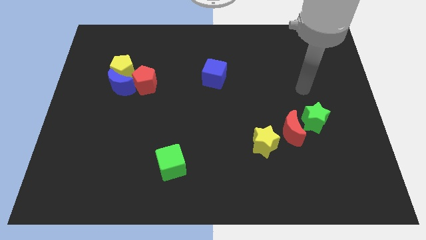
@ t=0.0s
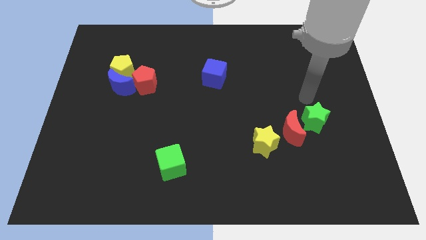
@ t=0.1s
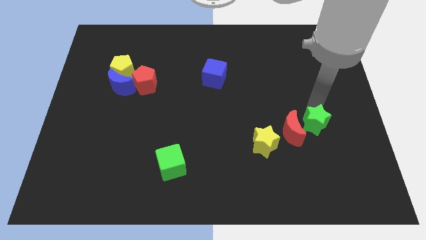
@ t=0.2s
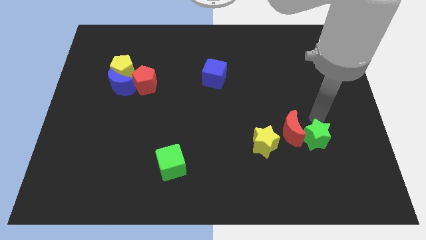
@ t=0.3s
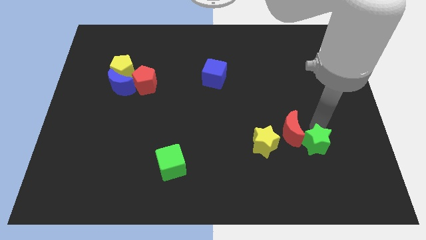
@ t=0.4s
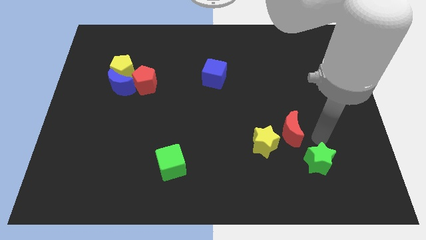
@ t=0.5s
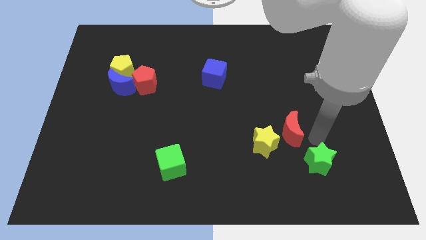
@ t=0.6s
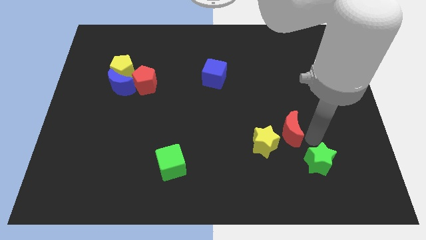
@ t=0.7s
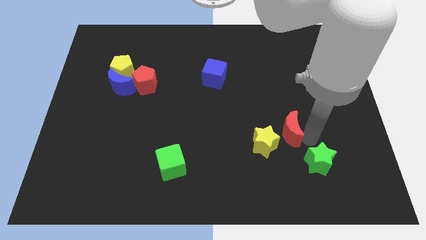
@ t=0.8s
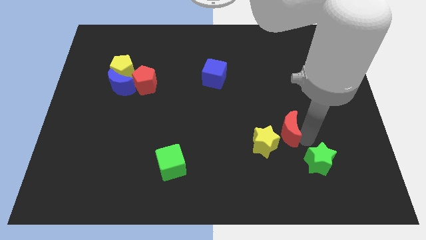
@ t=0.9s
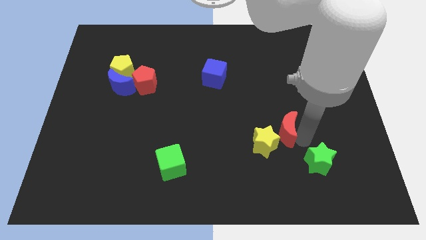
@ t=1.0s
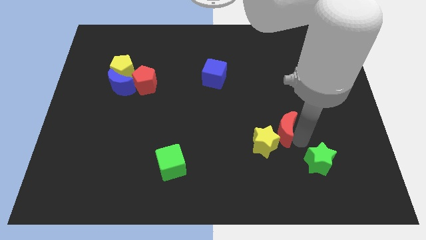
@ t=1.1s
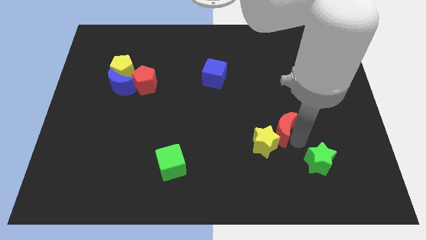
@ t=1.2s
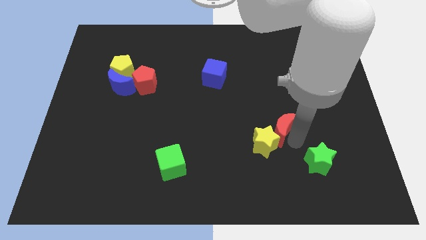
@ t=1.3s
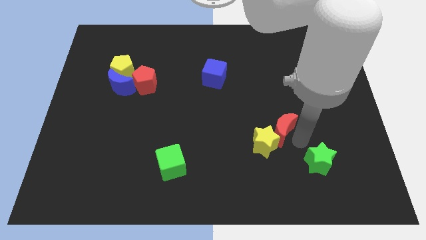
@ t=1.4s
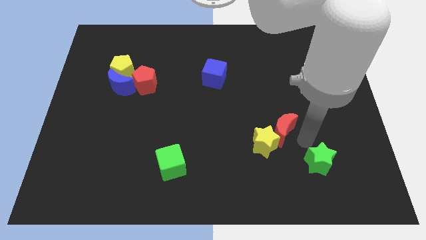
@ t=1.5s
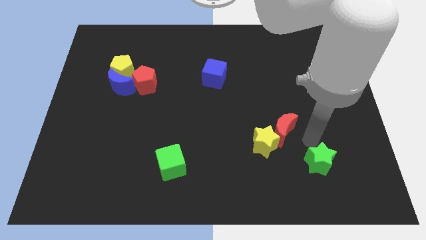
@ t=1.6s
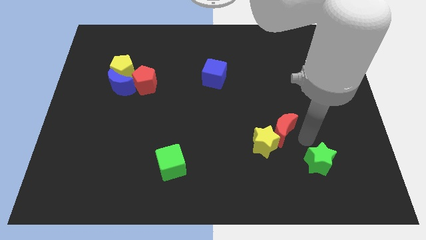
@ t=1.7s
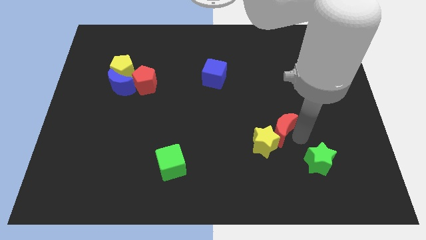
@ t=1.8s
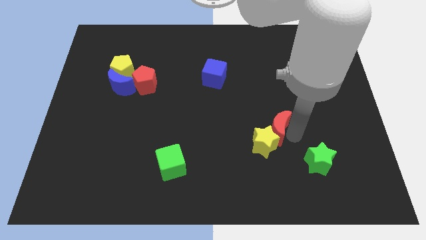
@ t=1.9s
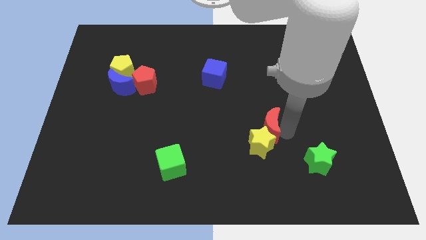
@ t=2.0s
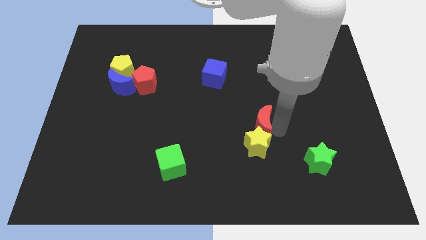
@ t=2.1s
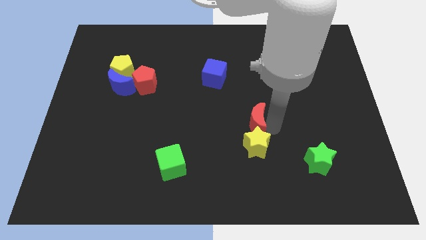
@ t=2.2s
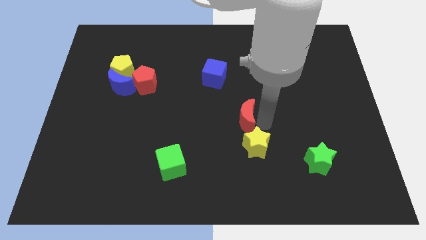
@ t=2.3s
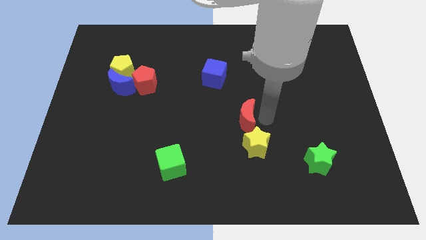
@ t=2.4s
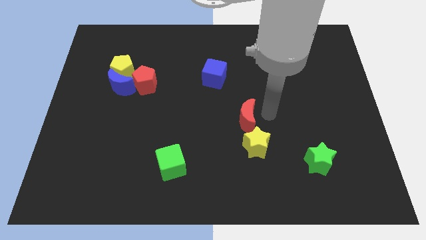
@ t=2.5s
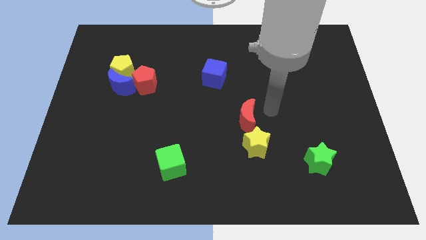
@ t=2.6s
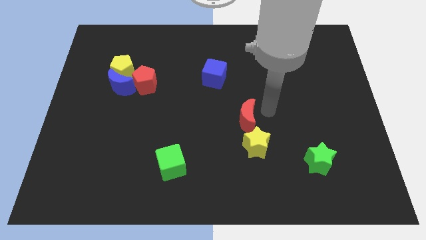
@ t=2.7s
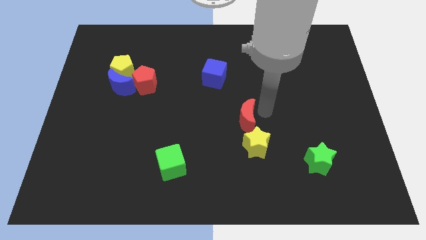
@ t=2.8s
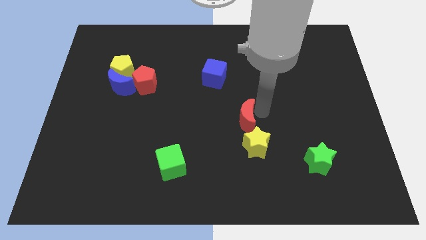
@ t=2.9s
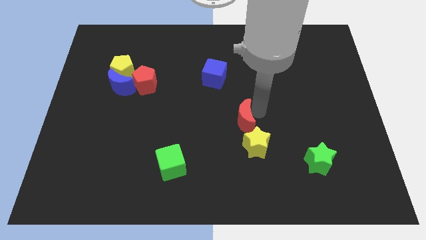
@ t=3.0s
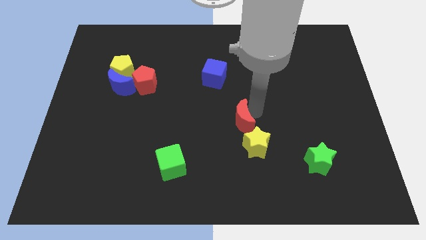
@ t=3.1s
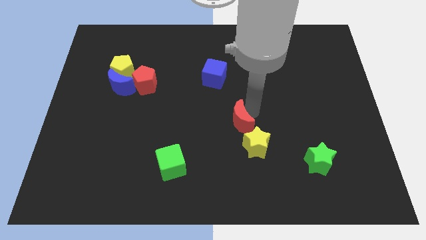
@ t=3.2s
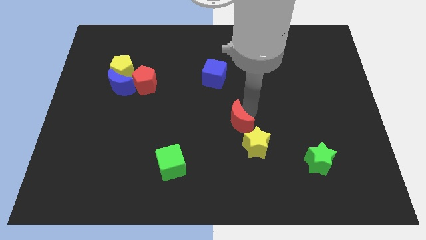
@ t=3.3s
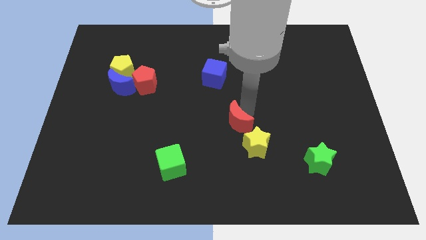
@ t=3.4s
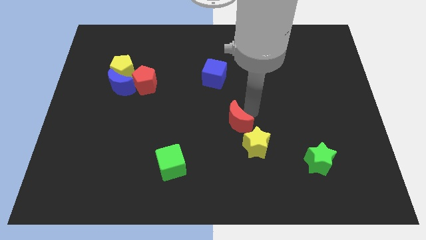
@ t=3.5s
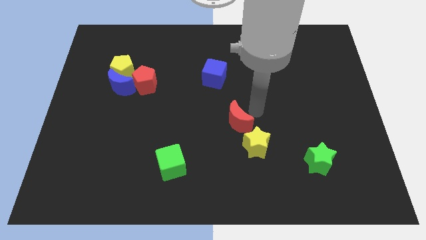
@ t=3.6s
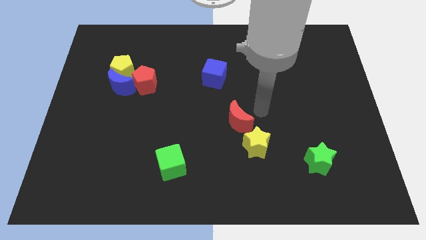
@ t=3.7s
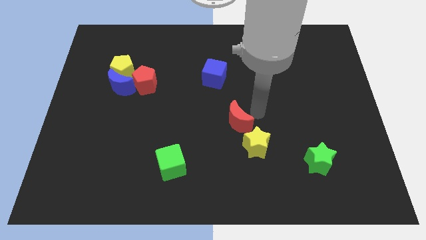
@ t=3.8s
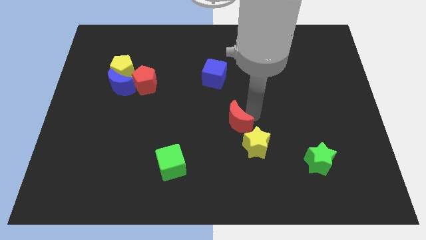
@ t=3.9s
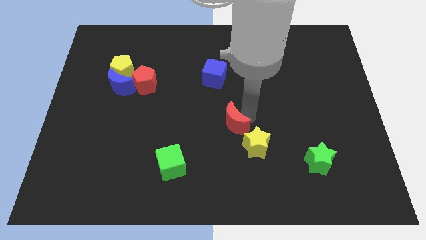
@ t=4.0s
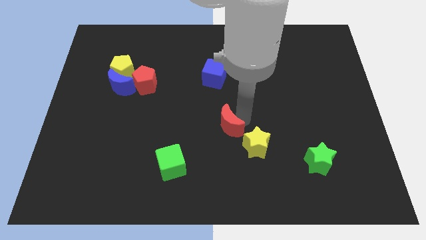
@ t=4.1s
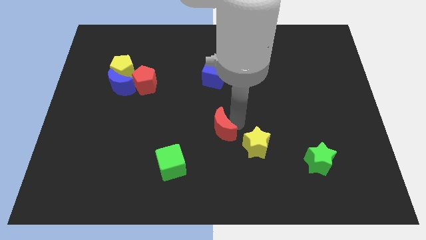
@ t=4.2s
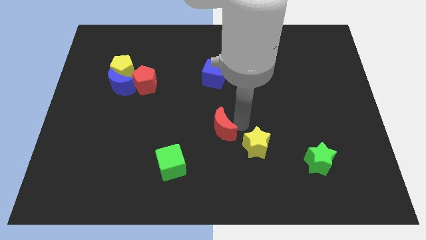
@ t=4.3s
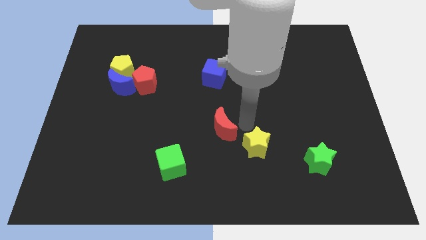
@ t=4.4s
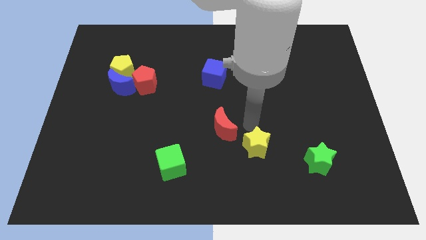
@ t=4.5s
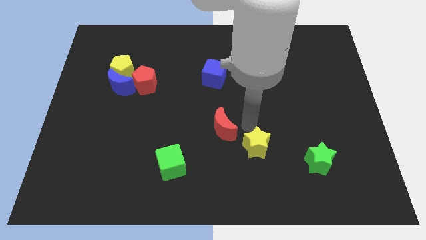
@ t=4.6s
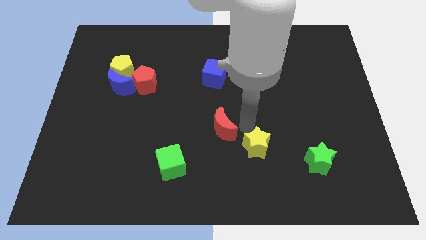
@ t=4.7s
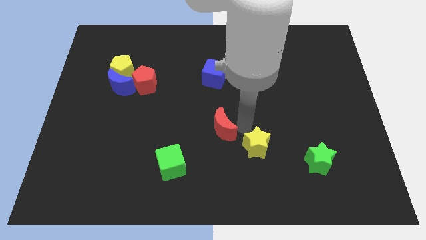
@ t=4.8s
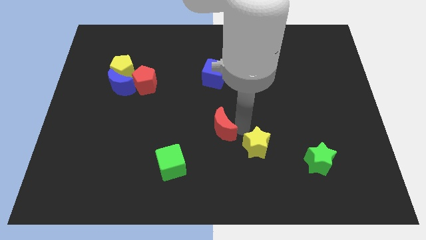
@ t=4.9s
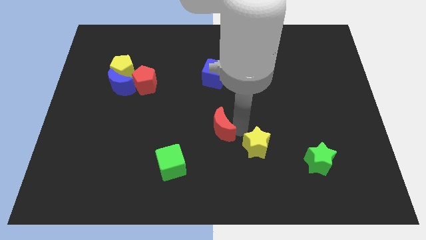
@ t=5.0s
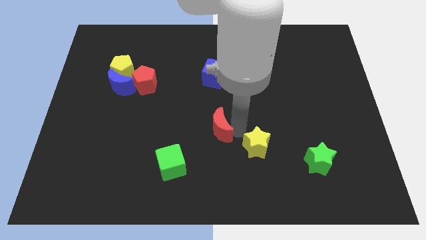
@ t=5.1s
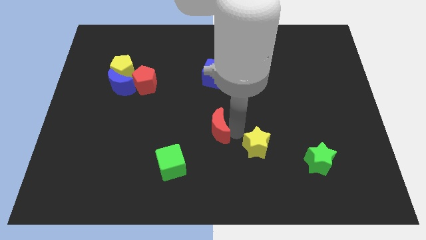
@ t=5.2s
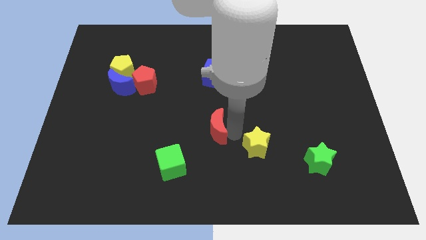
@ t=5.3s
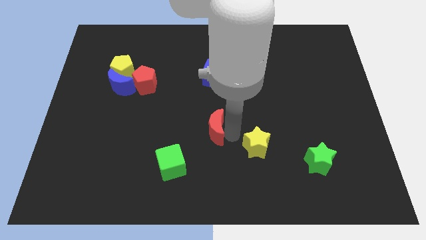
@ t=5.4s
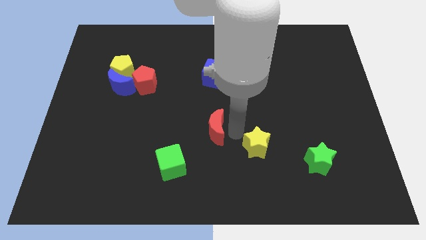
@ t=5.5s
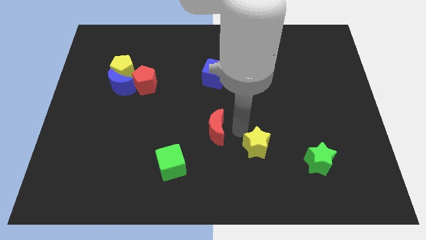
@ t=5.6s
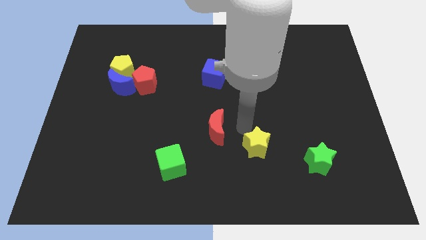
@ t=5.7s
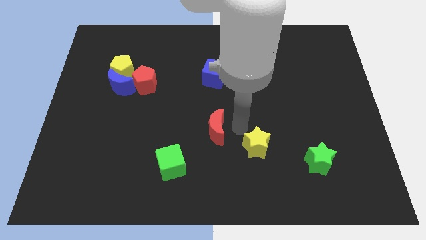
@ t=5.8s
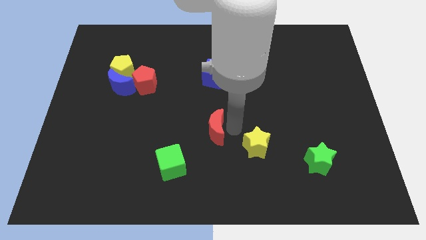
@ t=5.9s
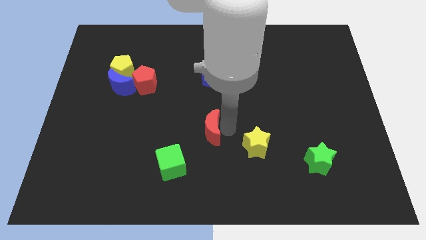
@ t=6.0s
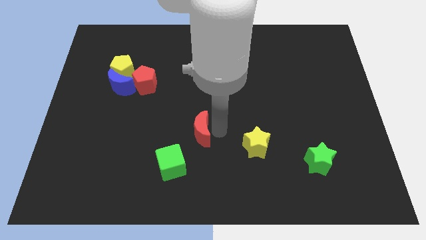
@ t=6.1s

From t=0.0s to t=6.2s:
move the red moon to the left

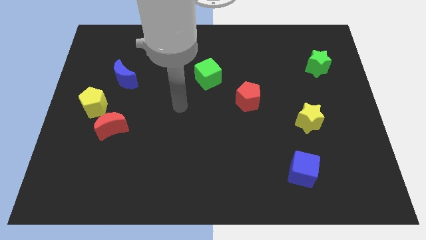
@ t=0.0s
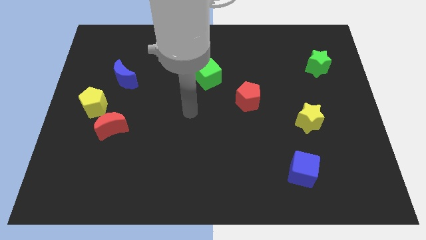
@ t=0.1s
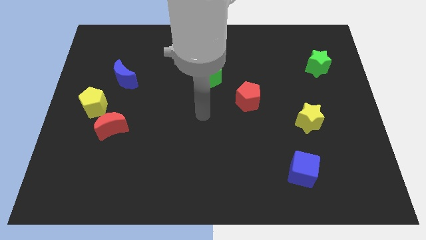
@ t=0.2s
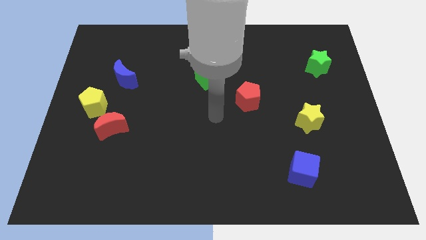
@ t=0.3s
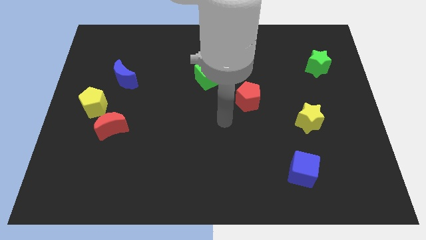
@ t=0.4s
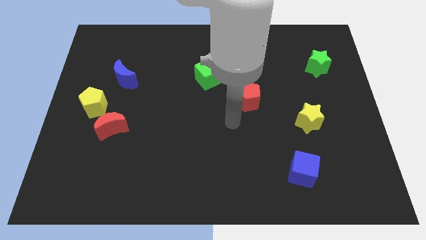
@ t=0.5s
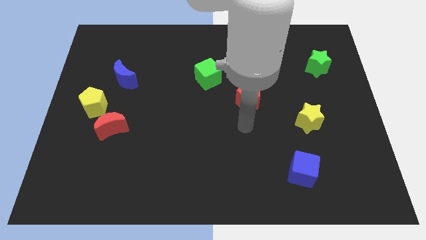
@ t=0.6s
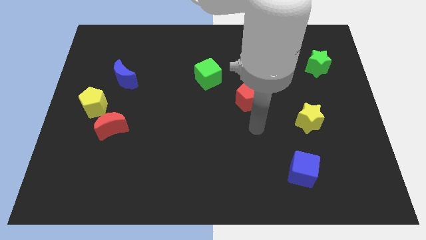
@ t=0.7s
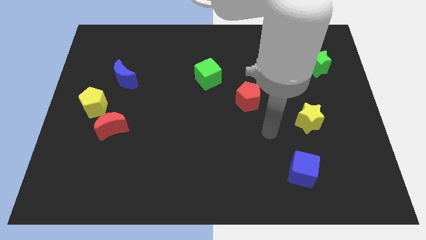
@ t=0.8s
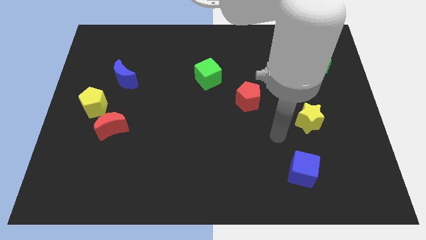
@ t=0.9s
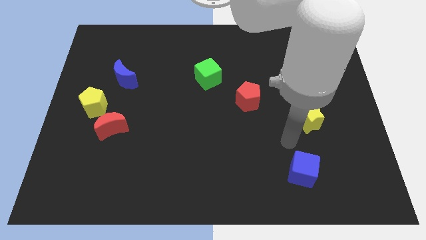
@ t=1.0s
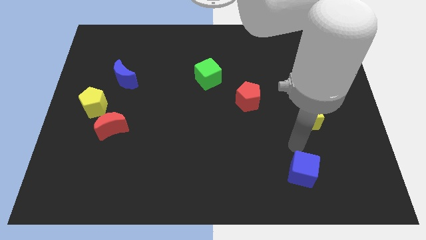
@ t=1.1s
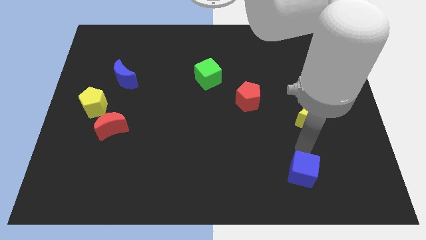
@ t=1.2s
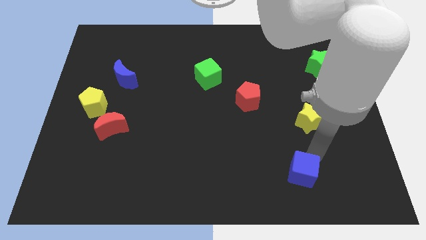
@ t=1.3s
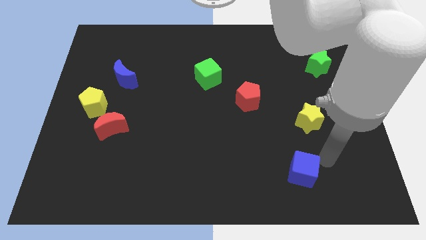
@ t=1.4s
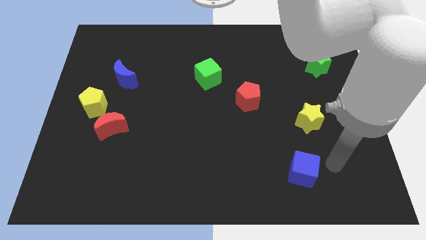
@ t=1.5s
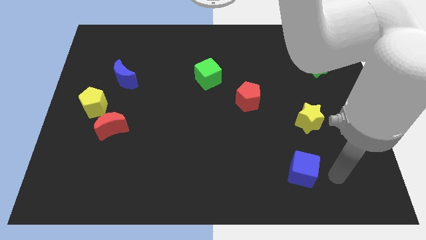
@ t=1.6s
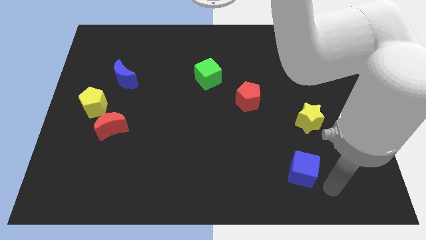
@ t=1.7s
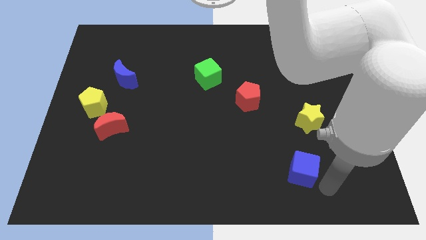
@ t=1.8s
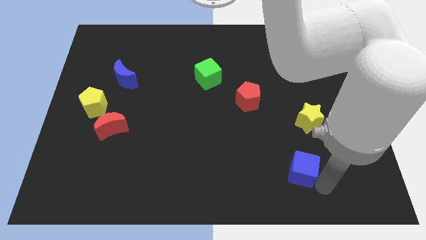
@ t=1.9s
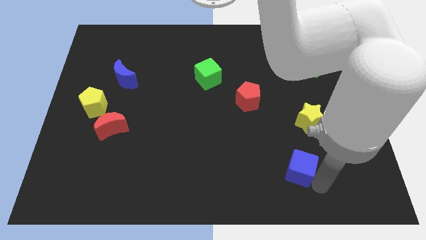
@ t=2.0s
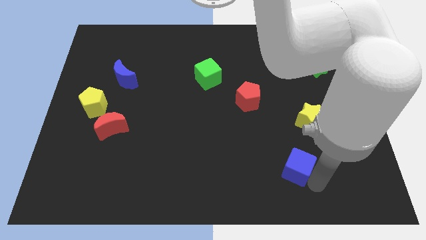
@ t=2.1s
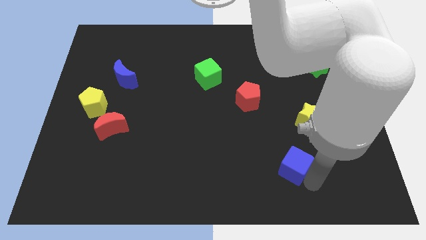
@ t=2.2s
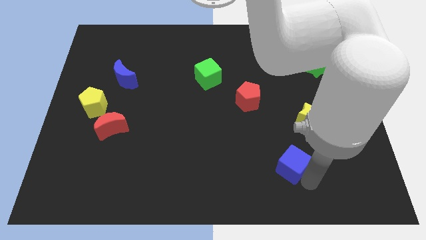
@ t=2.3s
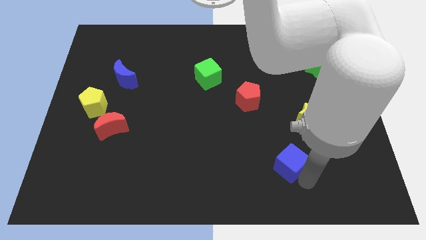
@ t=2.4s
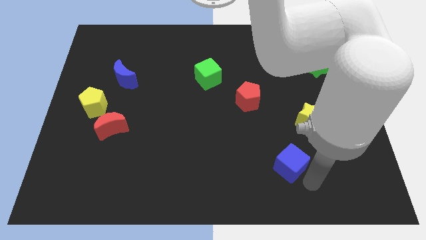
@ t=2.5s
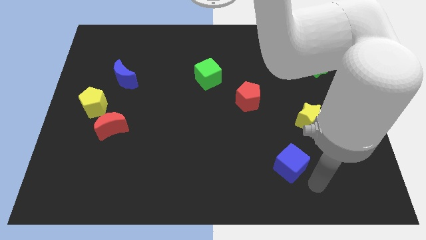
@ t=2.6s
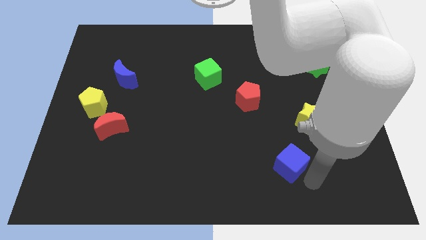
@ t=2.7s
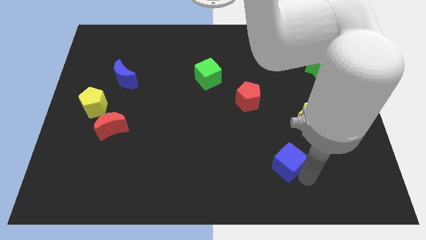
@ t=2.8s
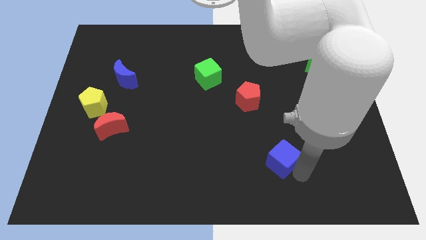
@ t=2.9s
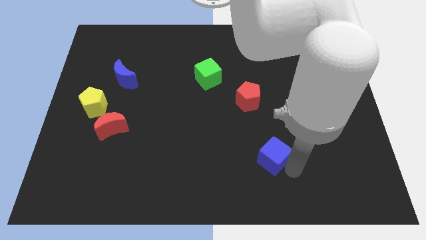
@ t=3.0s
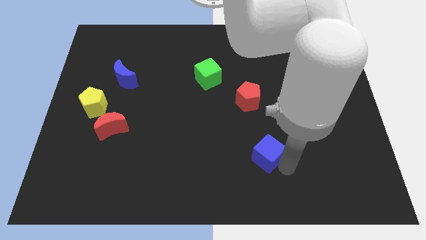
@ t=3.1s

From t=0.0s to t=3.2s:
slightly slide the blue cube up and left
